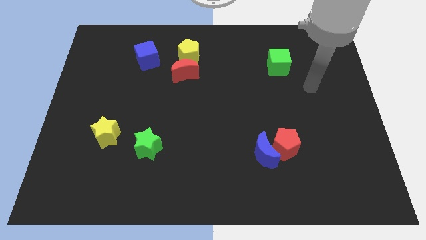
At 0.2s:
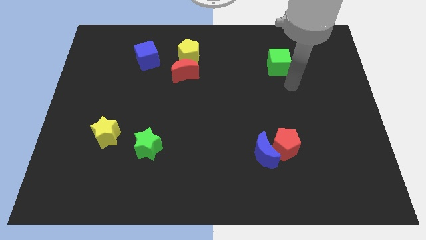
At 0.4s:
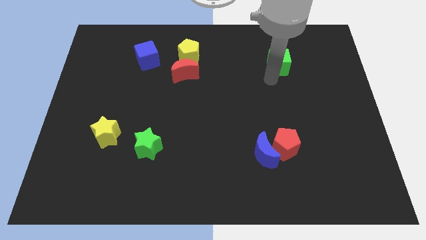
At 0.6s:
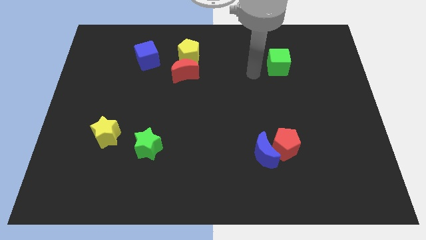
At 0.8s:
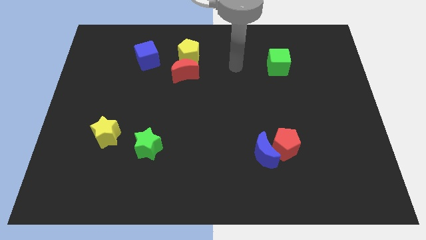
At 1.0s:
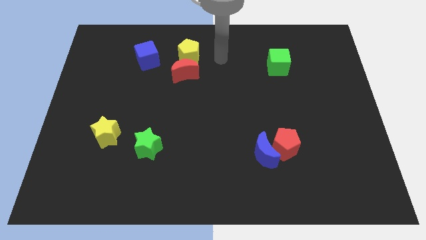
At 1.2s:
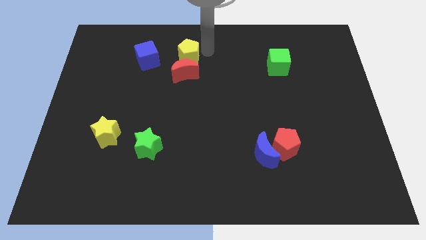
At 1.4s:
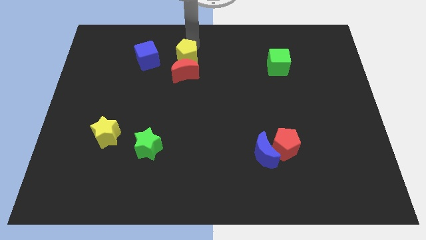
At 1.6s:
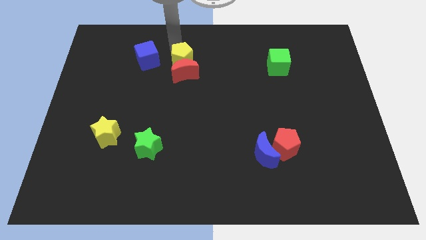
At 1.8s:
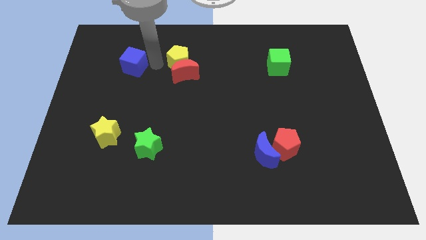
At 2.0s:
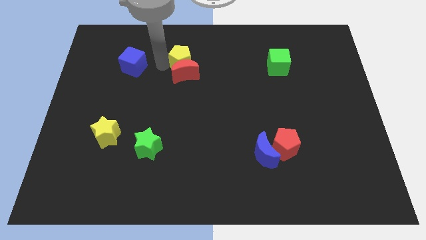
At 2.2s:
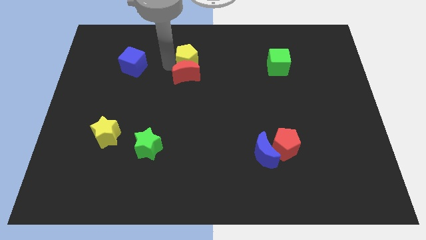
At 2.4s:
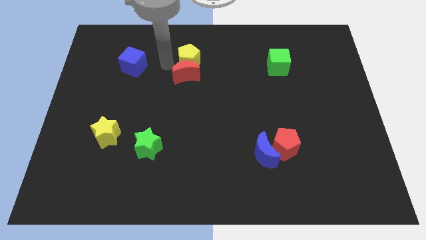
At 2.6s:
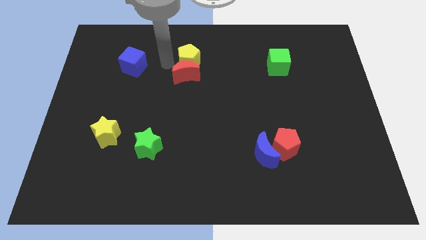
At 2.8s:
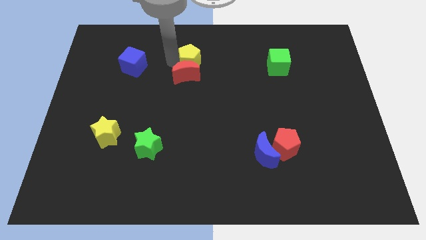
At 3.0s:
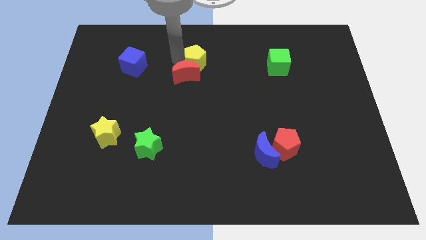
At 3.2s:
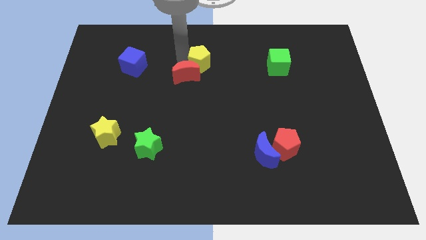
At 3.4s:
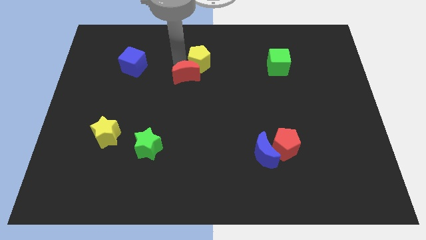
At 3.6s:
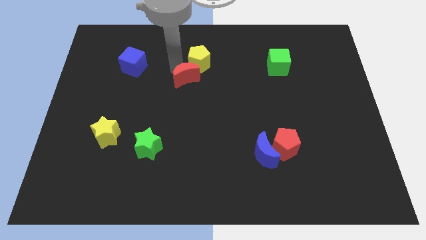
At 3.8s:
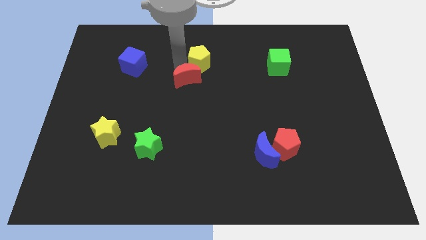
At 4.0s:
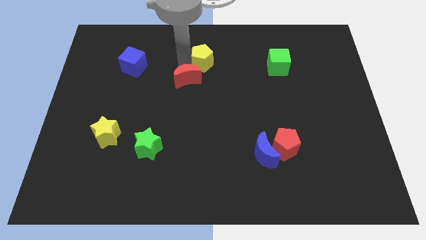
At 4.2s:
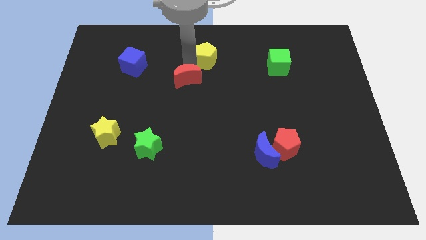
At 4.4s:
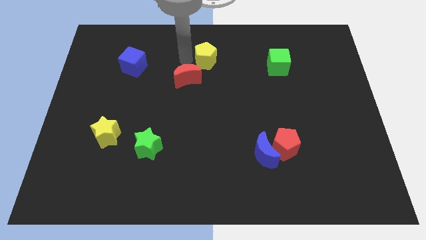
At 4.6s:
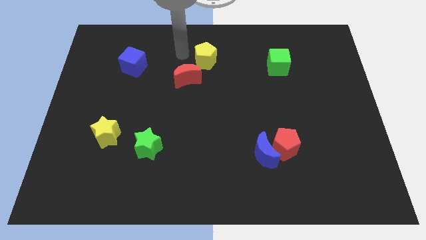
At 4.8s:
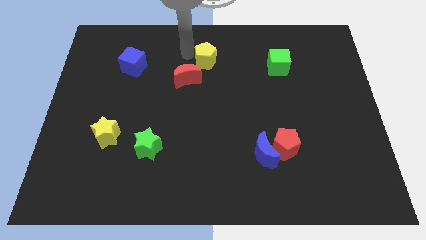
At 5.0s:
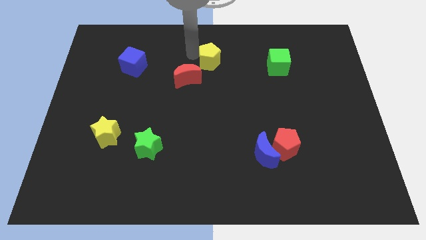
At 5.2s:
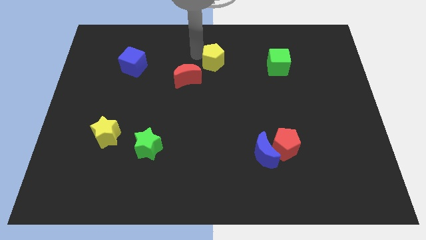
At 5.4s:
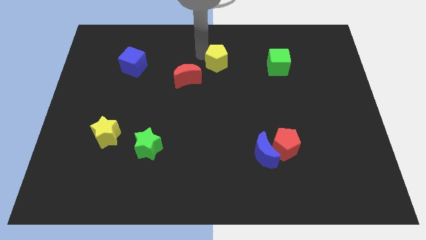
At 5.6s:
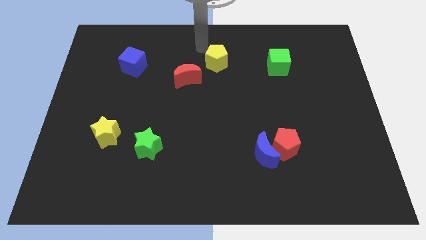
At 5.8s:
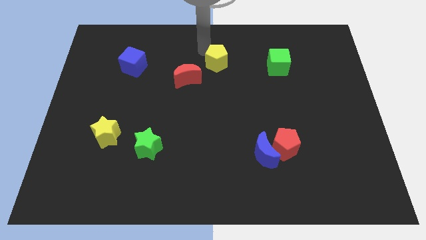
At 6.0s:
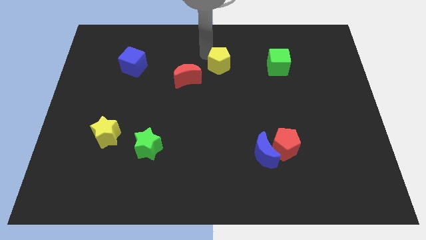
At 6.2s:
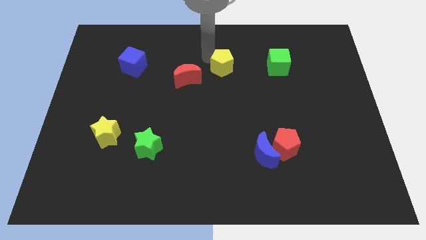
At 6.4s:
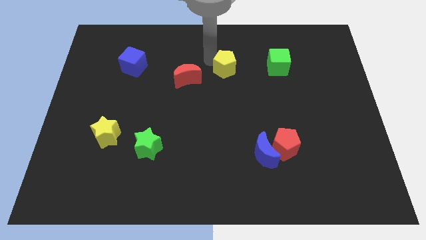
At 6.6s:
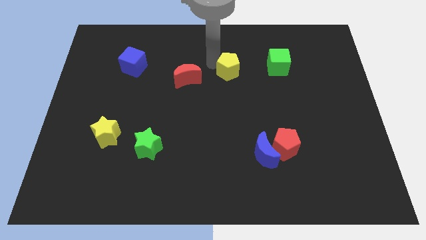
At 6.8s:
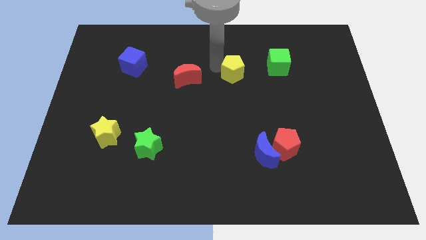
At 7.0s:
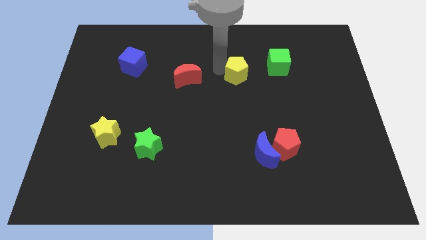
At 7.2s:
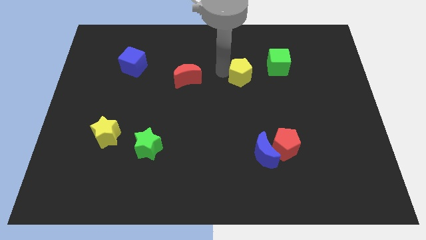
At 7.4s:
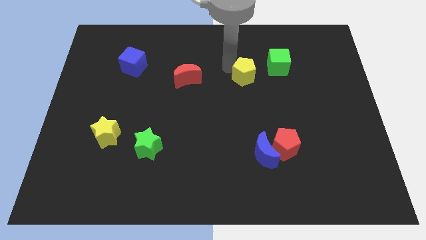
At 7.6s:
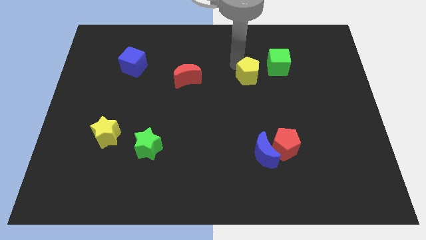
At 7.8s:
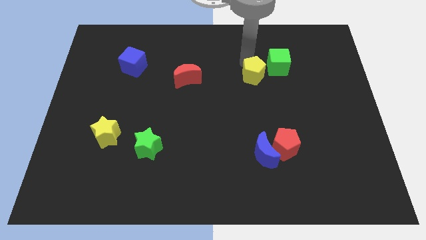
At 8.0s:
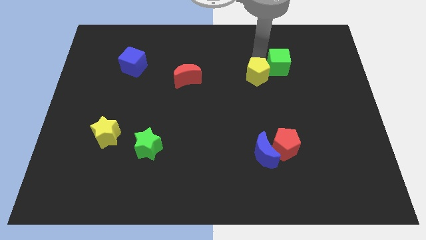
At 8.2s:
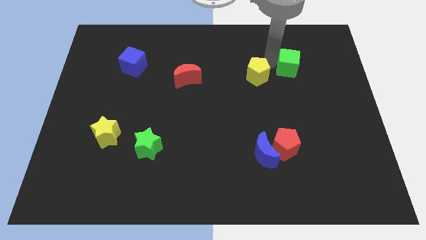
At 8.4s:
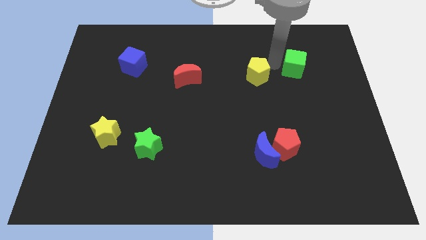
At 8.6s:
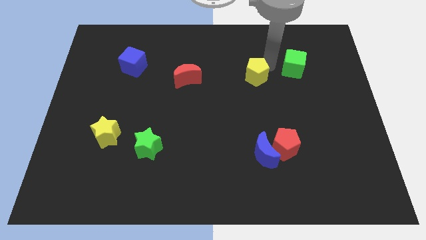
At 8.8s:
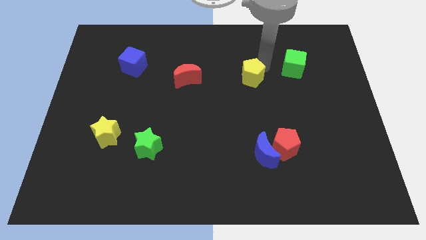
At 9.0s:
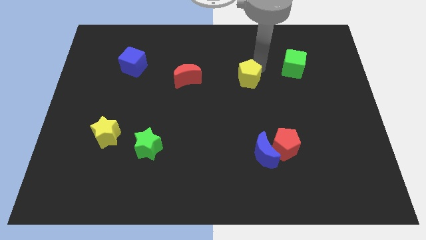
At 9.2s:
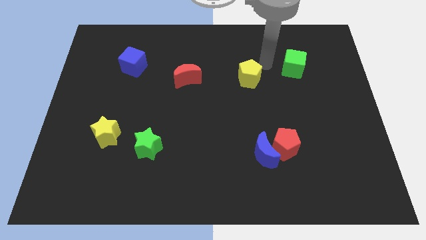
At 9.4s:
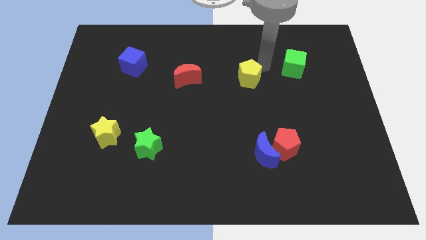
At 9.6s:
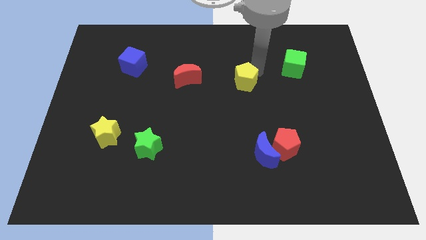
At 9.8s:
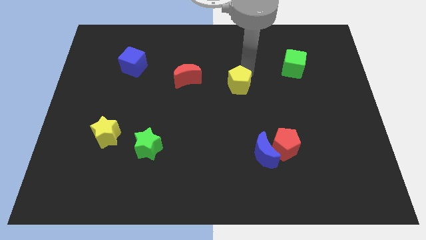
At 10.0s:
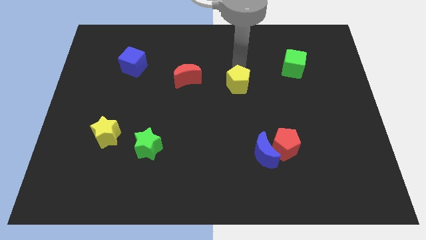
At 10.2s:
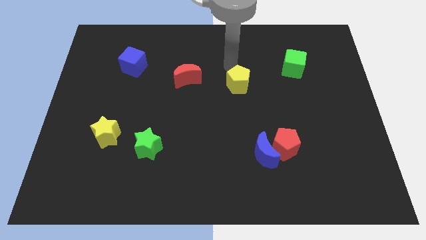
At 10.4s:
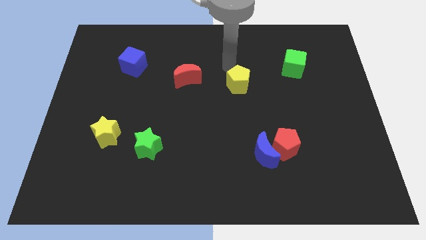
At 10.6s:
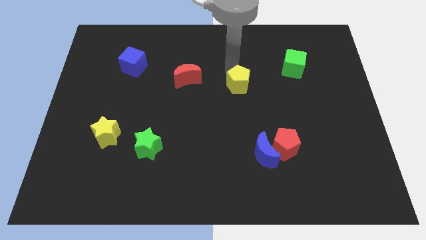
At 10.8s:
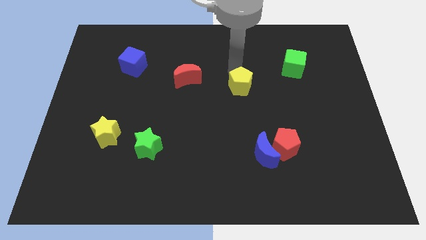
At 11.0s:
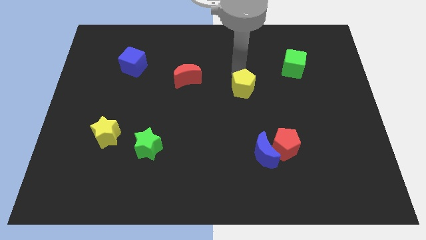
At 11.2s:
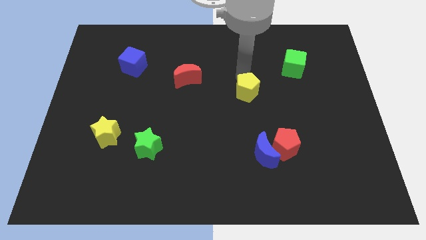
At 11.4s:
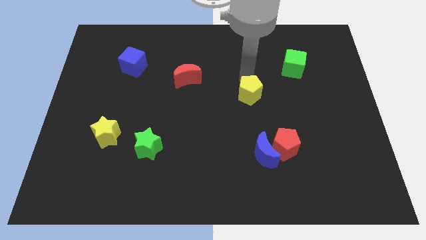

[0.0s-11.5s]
move the yellow pentagon downwards and right diagonally

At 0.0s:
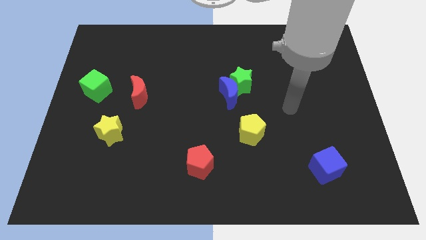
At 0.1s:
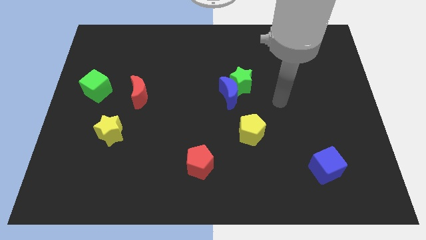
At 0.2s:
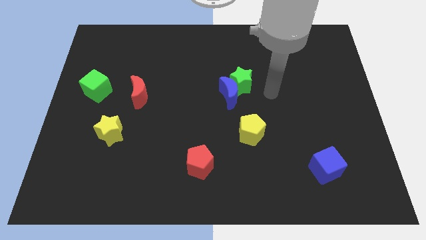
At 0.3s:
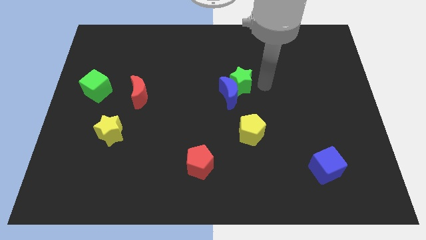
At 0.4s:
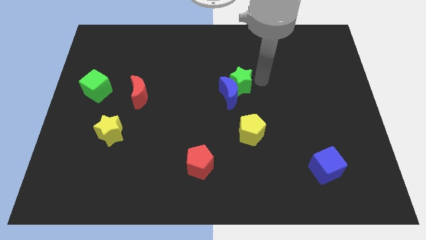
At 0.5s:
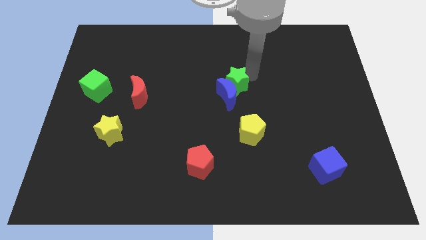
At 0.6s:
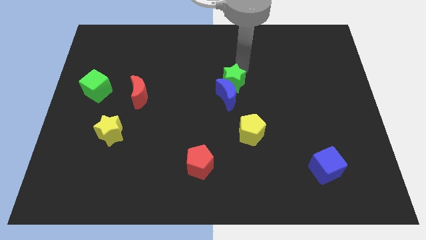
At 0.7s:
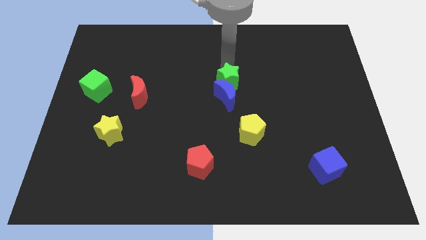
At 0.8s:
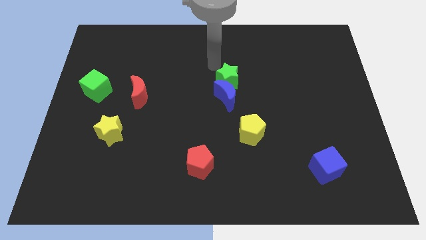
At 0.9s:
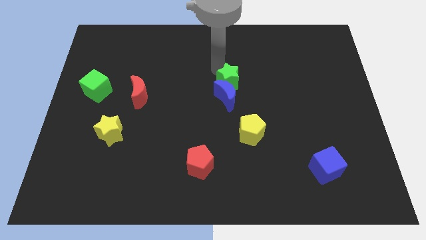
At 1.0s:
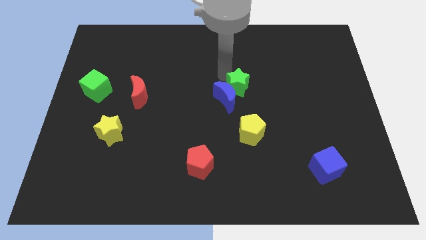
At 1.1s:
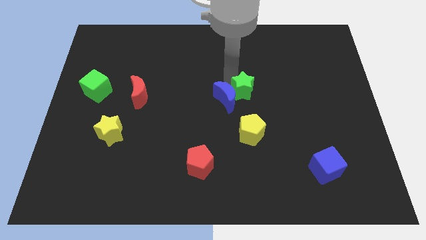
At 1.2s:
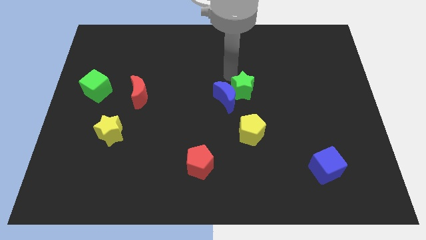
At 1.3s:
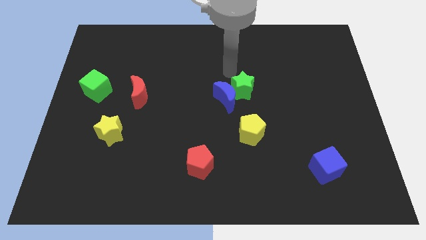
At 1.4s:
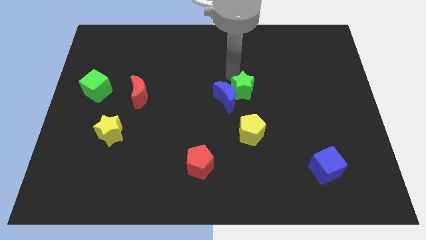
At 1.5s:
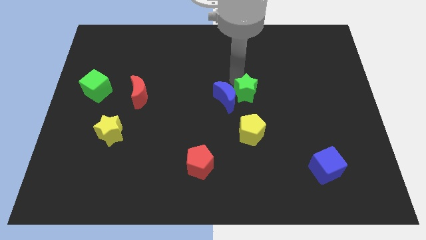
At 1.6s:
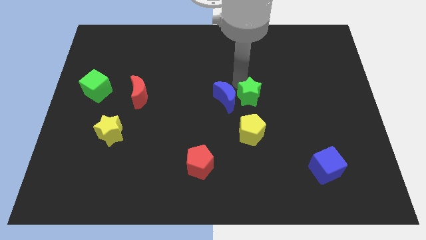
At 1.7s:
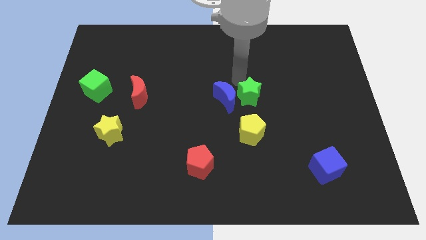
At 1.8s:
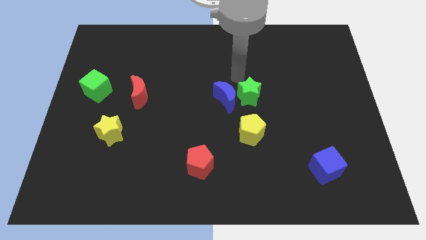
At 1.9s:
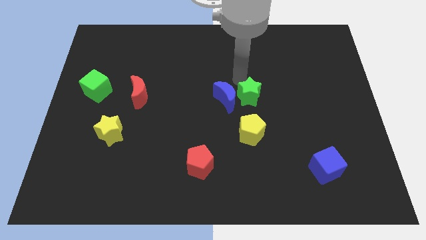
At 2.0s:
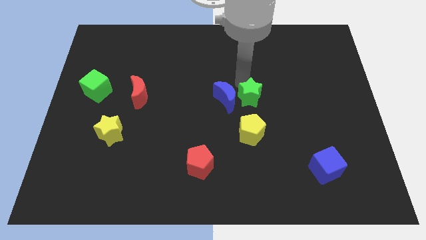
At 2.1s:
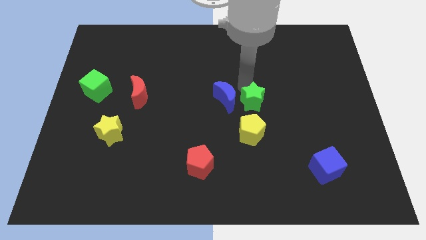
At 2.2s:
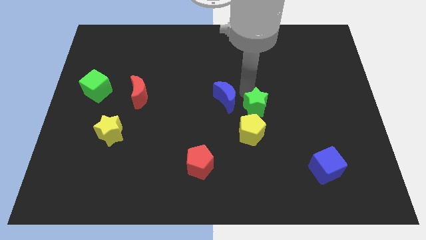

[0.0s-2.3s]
slightly slide the green star downwards and right diagonally

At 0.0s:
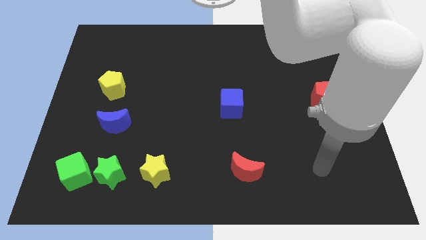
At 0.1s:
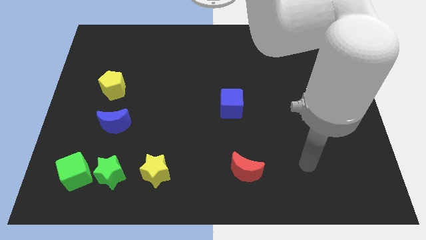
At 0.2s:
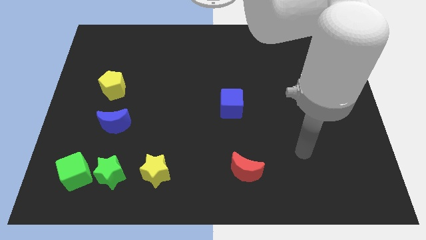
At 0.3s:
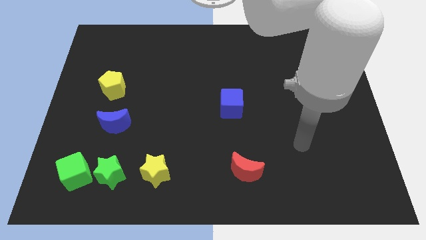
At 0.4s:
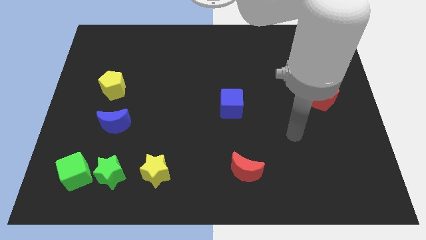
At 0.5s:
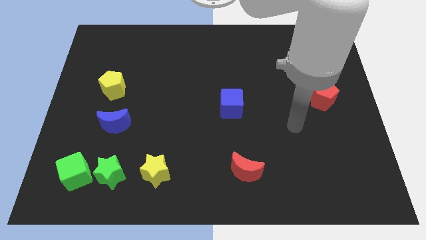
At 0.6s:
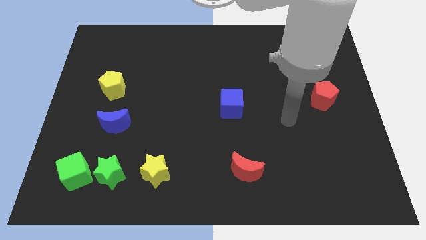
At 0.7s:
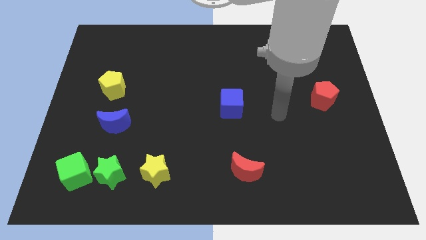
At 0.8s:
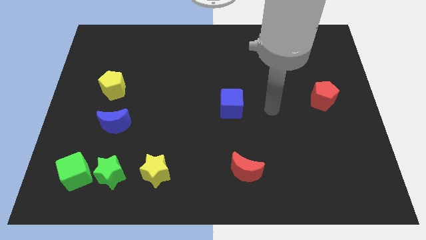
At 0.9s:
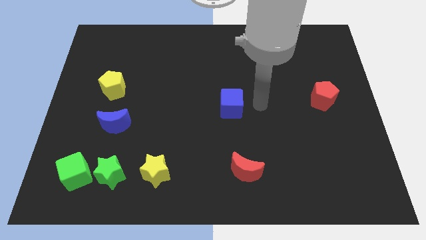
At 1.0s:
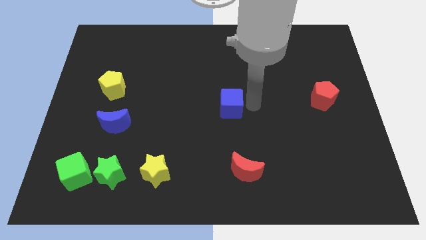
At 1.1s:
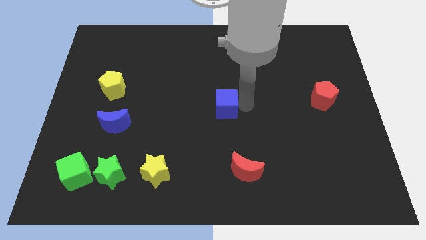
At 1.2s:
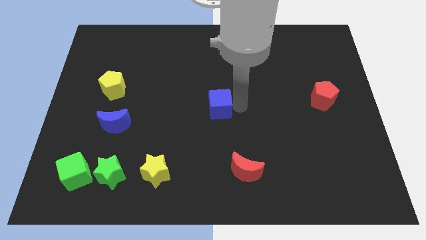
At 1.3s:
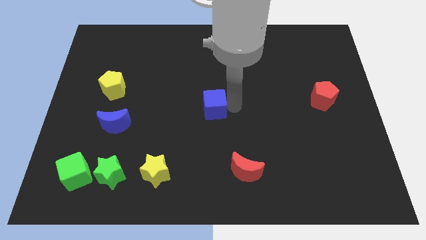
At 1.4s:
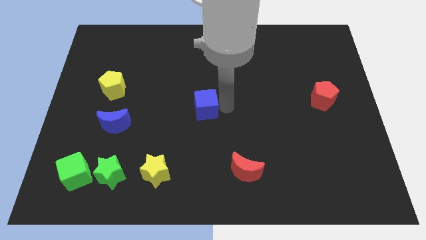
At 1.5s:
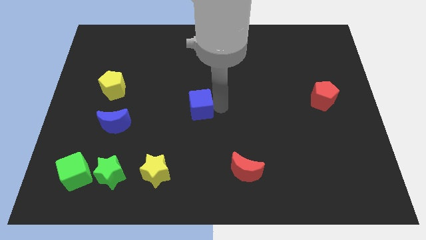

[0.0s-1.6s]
slightly slide the blue cube to the left
